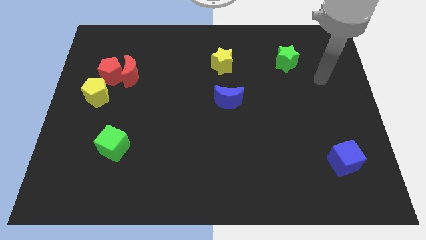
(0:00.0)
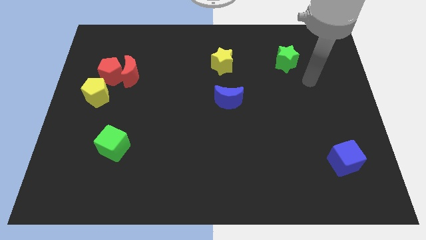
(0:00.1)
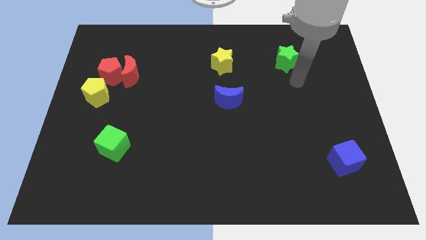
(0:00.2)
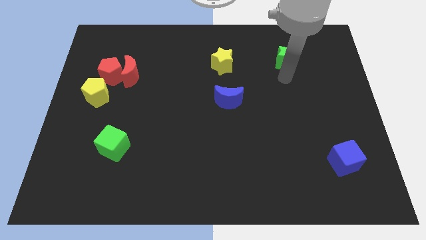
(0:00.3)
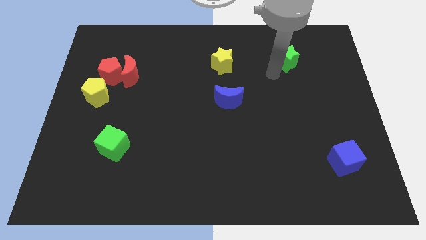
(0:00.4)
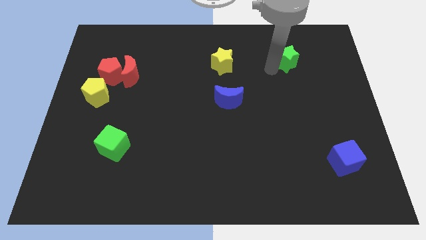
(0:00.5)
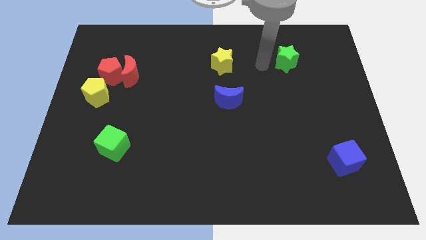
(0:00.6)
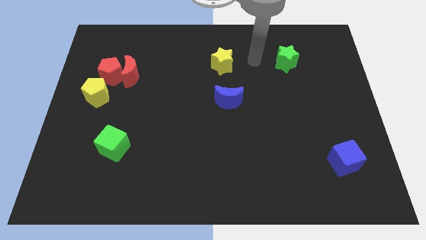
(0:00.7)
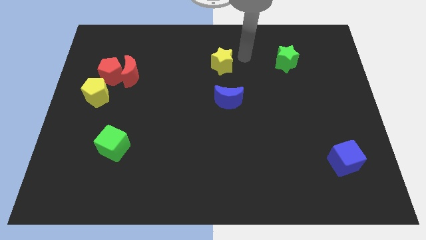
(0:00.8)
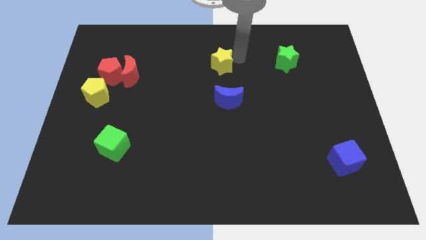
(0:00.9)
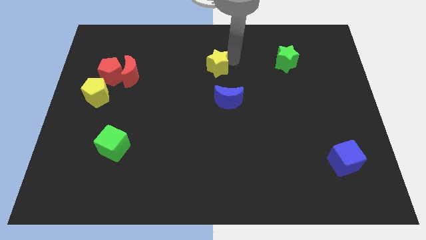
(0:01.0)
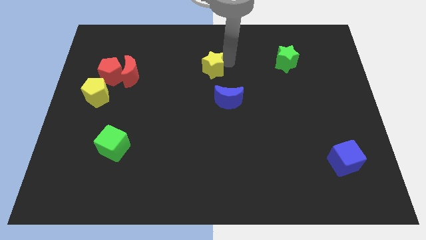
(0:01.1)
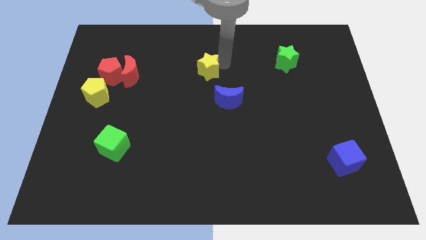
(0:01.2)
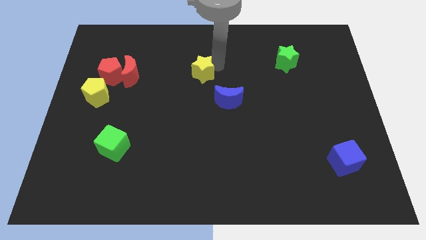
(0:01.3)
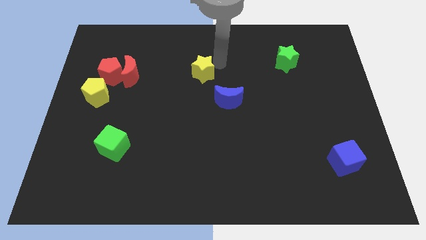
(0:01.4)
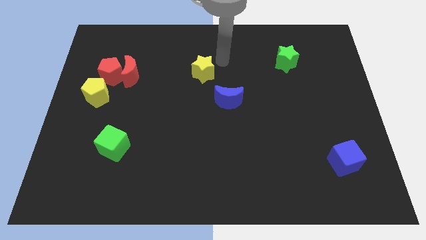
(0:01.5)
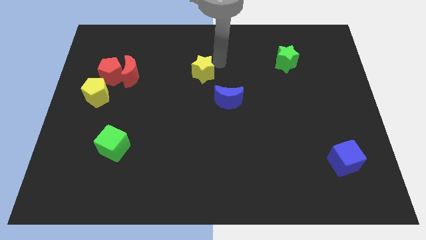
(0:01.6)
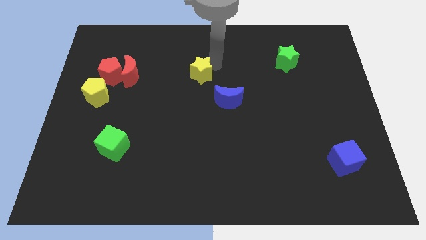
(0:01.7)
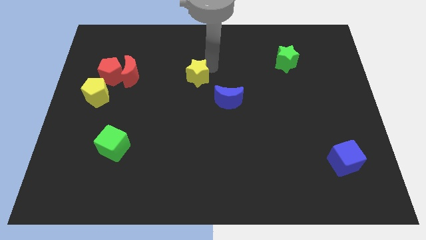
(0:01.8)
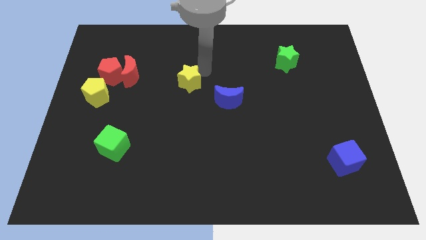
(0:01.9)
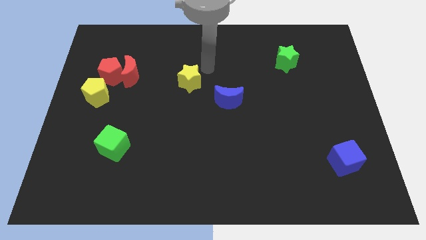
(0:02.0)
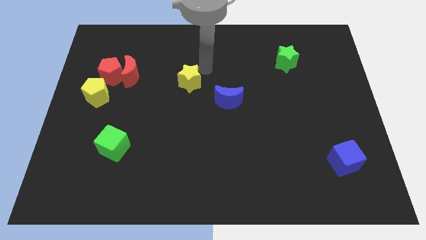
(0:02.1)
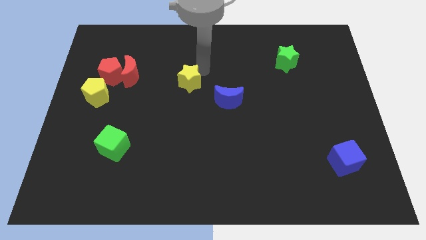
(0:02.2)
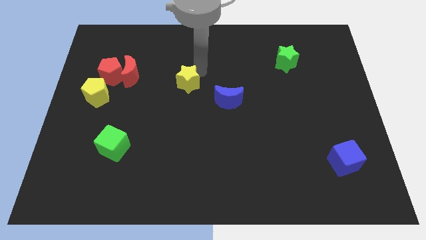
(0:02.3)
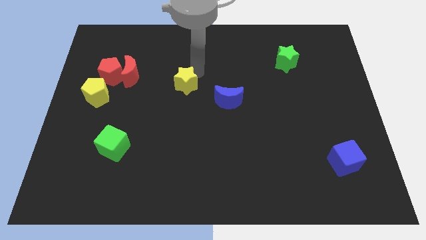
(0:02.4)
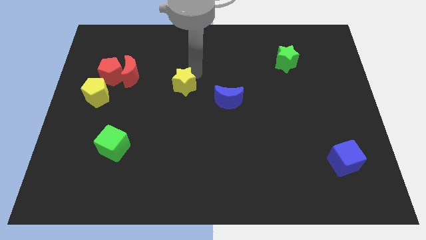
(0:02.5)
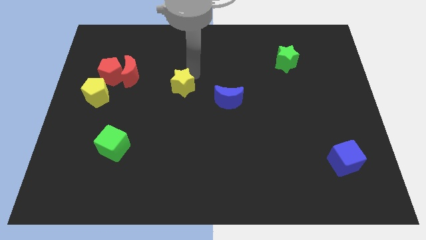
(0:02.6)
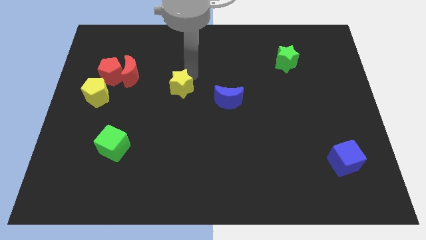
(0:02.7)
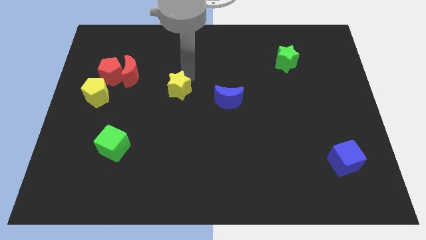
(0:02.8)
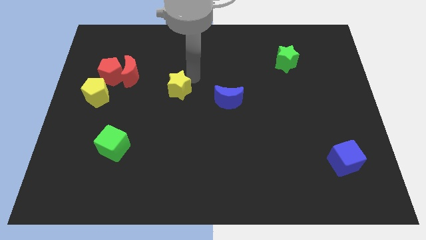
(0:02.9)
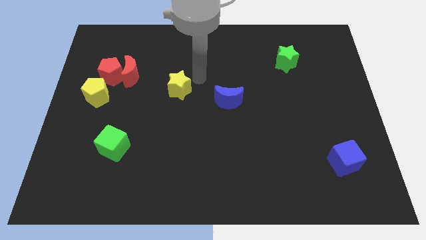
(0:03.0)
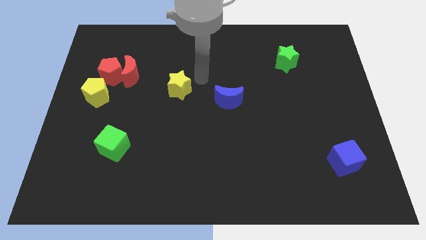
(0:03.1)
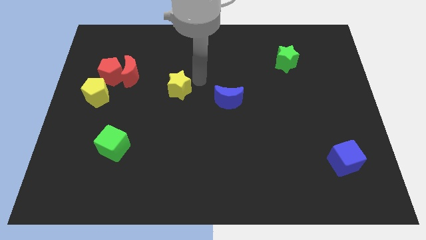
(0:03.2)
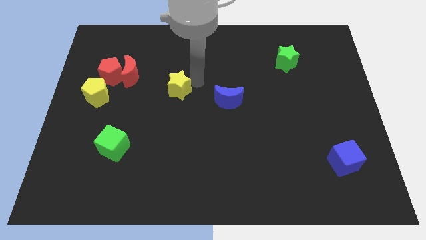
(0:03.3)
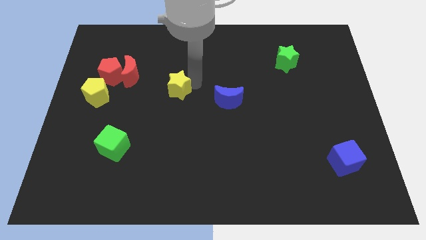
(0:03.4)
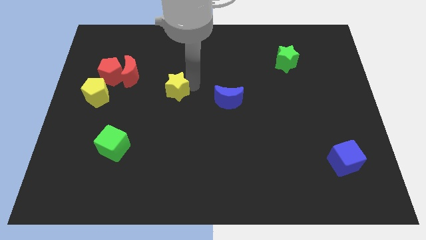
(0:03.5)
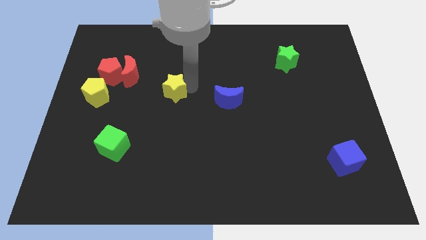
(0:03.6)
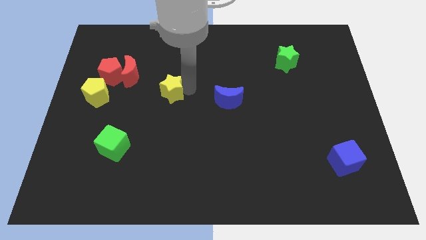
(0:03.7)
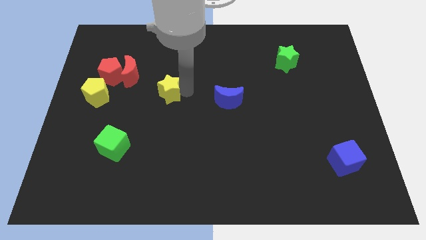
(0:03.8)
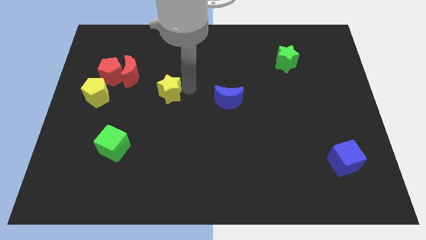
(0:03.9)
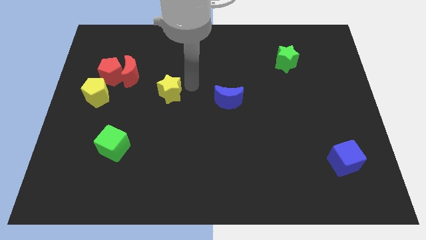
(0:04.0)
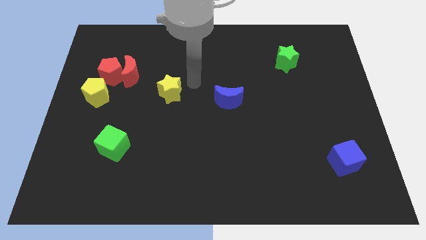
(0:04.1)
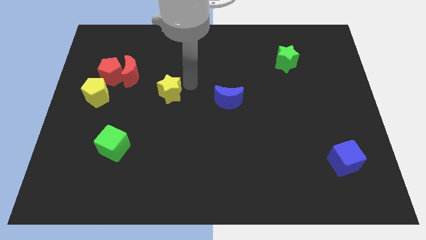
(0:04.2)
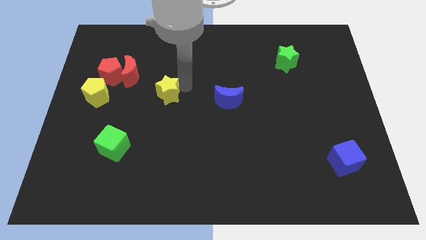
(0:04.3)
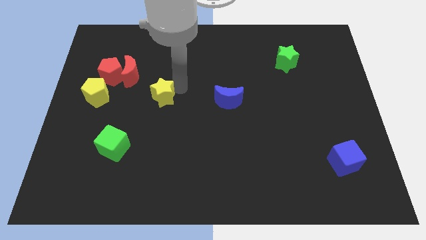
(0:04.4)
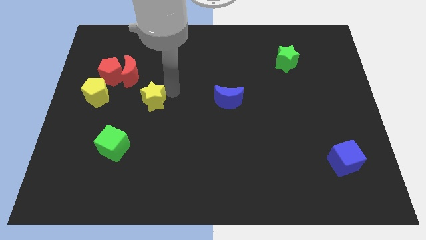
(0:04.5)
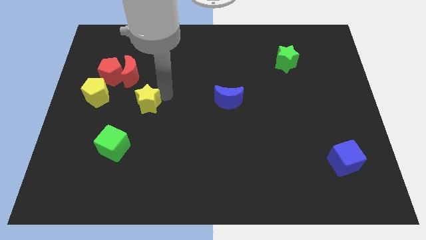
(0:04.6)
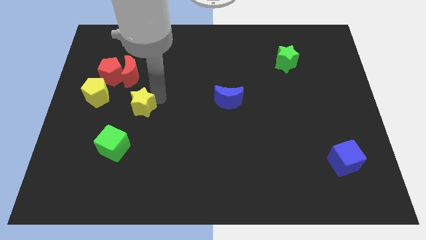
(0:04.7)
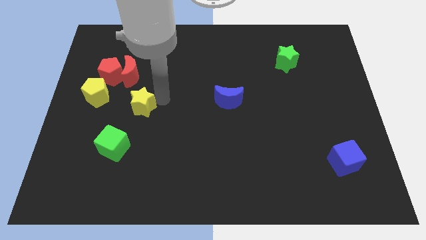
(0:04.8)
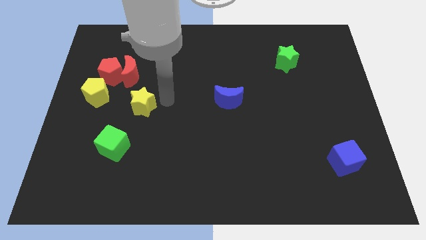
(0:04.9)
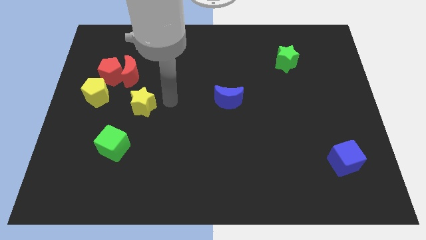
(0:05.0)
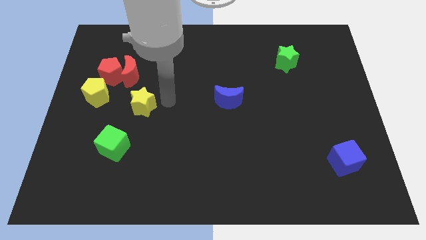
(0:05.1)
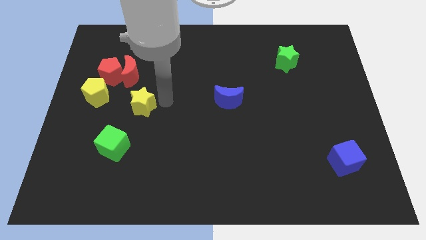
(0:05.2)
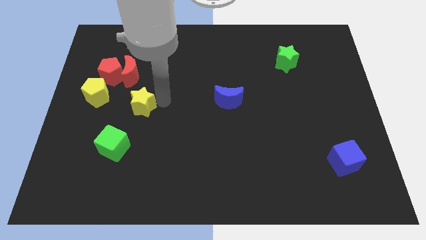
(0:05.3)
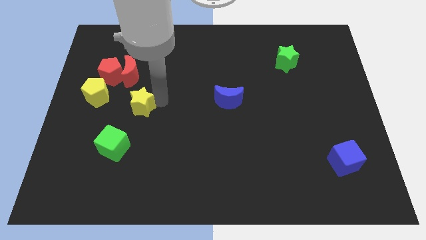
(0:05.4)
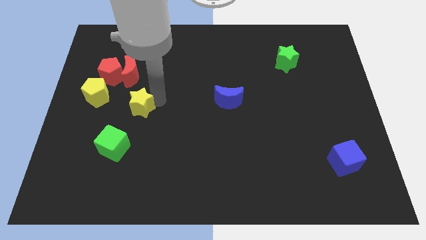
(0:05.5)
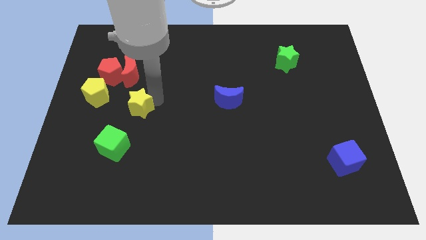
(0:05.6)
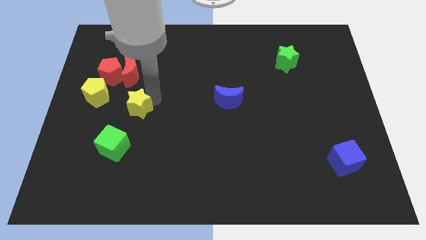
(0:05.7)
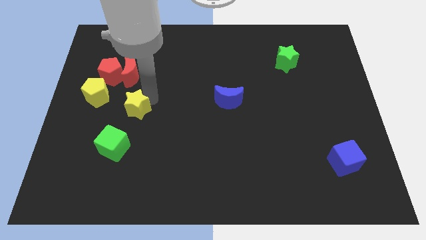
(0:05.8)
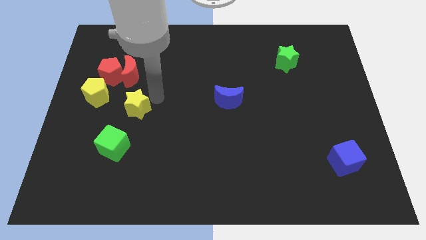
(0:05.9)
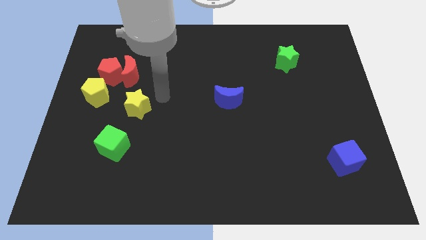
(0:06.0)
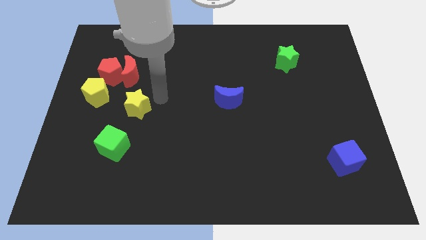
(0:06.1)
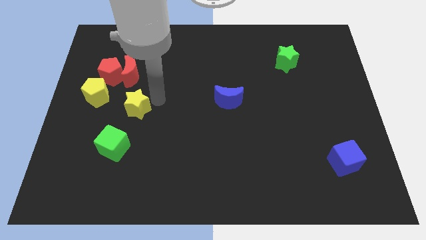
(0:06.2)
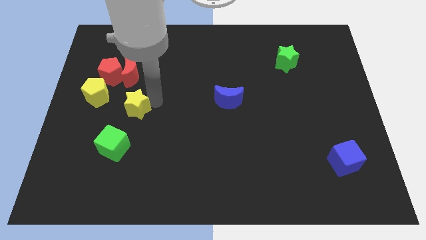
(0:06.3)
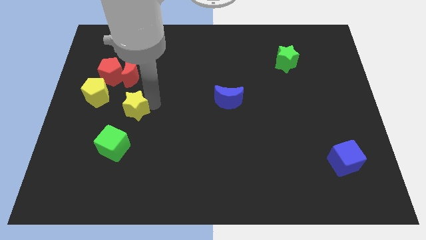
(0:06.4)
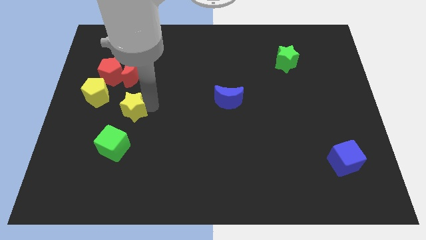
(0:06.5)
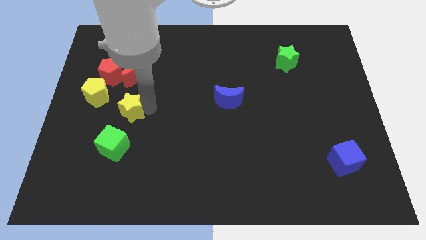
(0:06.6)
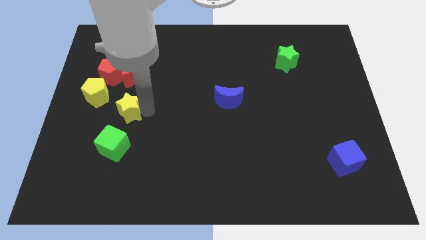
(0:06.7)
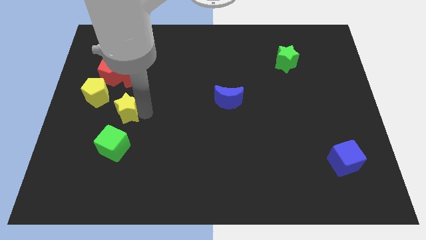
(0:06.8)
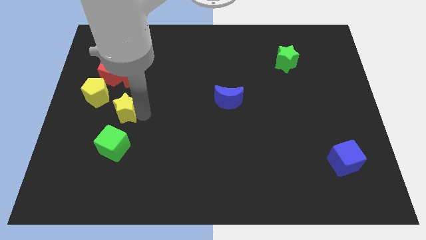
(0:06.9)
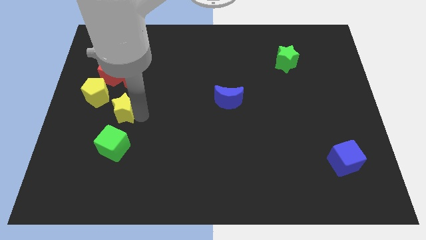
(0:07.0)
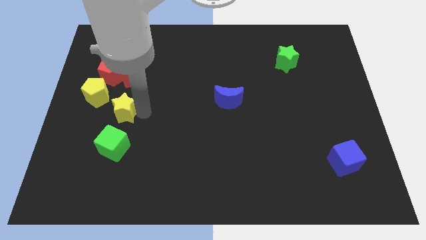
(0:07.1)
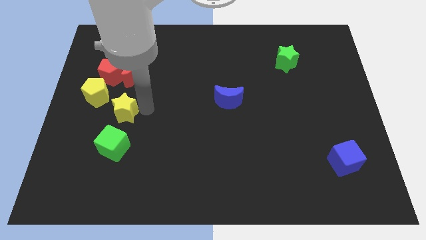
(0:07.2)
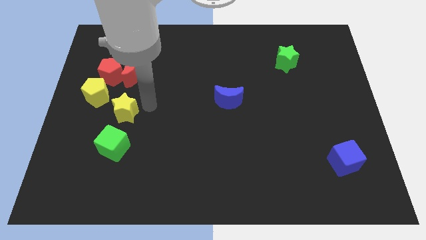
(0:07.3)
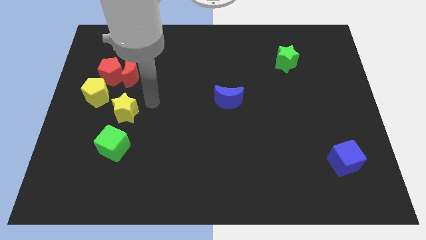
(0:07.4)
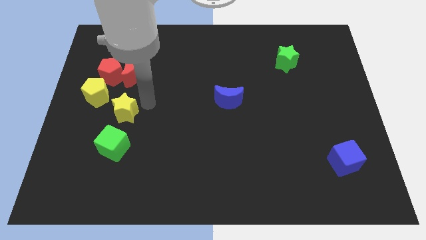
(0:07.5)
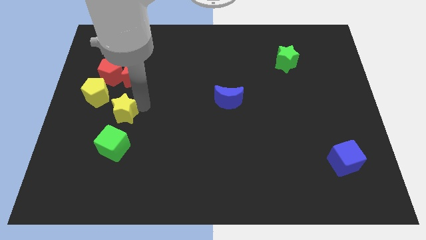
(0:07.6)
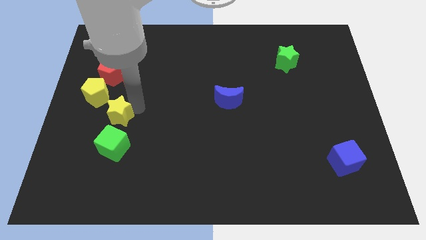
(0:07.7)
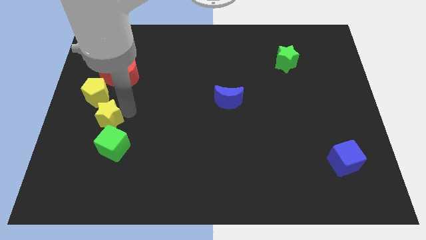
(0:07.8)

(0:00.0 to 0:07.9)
move the yellow star to the bottom side of the yellow pentagon
